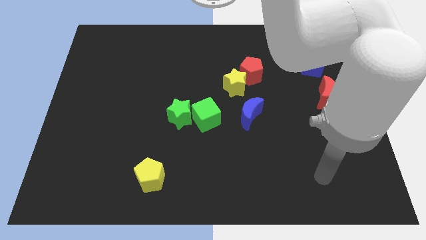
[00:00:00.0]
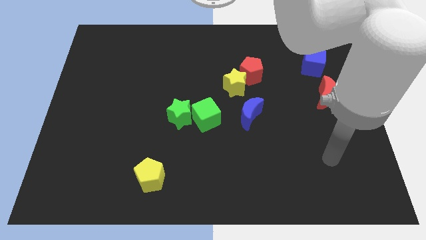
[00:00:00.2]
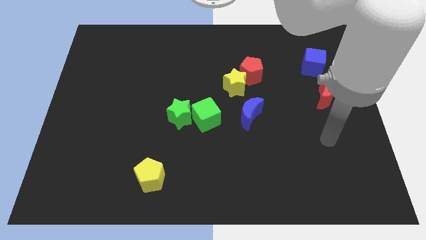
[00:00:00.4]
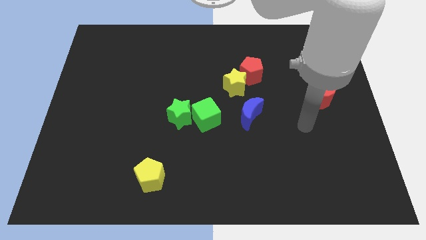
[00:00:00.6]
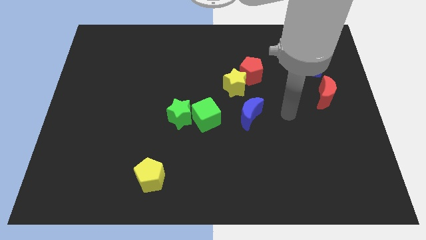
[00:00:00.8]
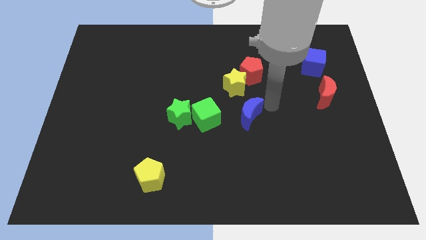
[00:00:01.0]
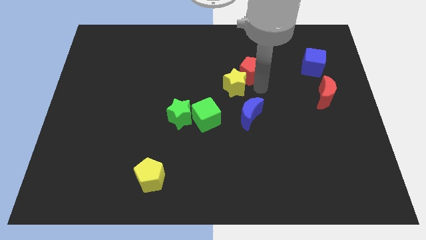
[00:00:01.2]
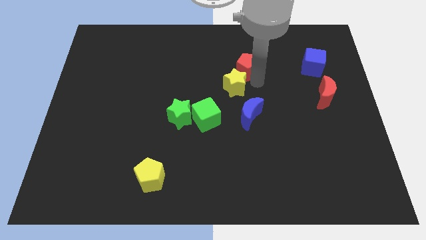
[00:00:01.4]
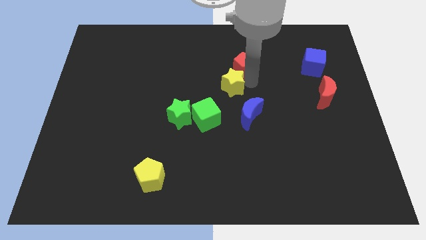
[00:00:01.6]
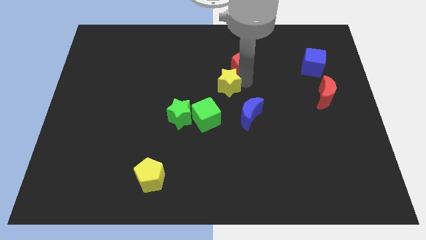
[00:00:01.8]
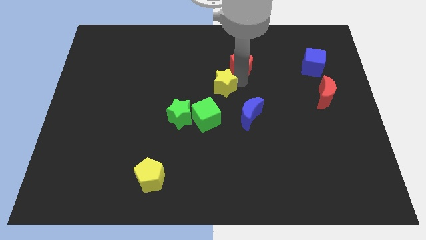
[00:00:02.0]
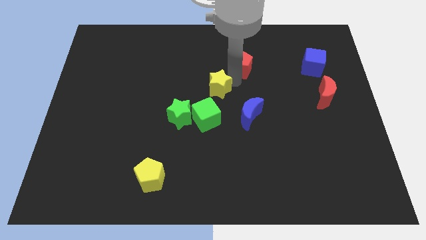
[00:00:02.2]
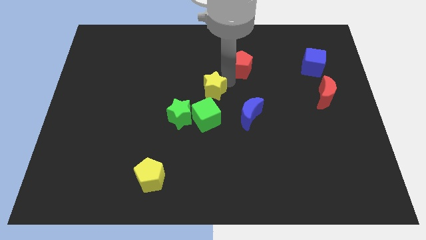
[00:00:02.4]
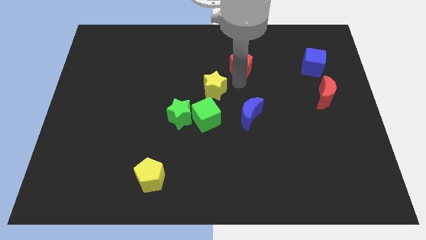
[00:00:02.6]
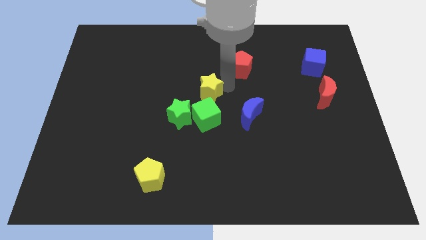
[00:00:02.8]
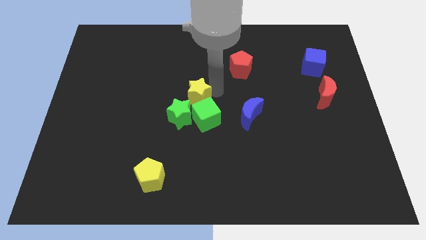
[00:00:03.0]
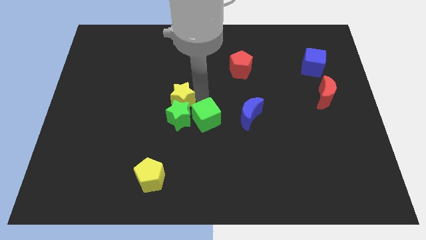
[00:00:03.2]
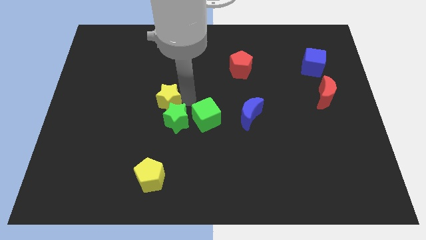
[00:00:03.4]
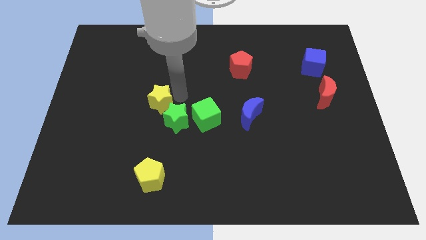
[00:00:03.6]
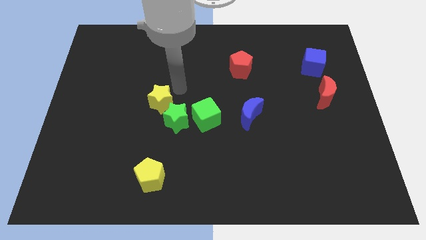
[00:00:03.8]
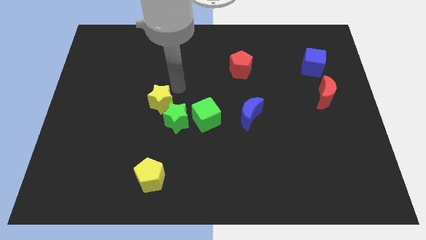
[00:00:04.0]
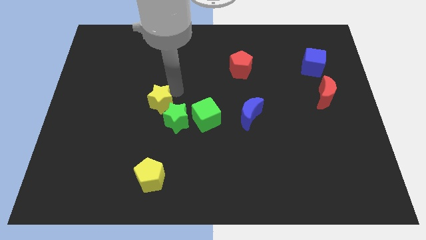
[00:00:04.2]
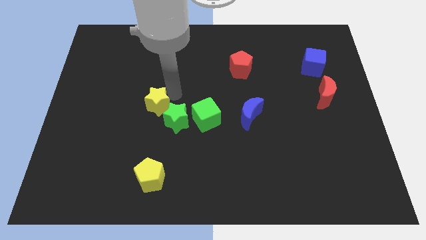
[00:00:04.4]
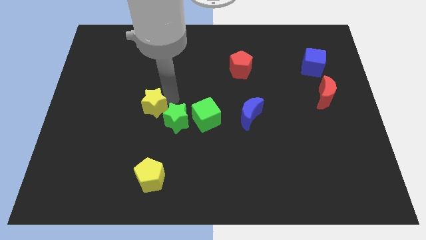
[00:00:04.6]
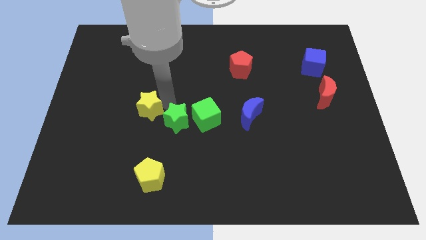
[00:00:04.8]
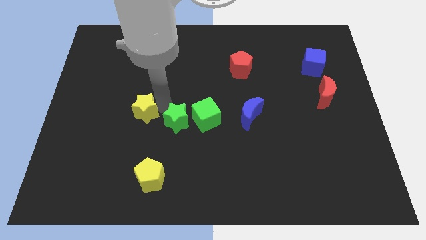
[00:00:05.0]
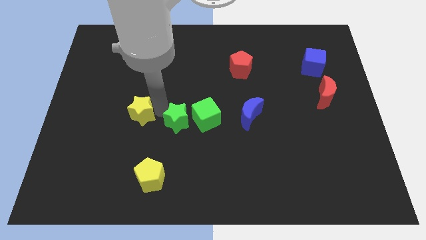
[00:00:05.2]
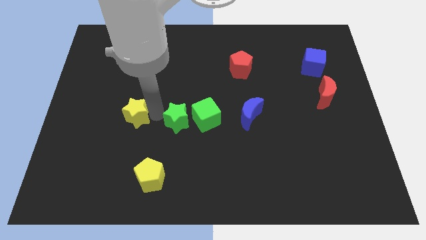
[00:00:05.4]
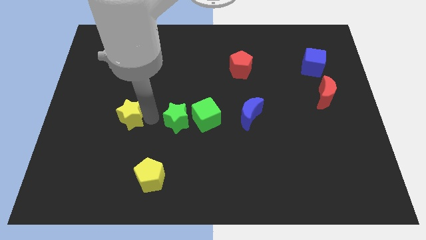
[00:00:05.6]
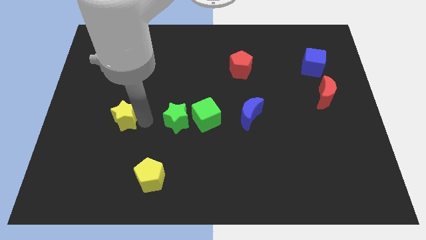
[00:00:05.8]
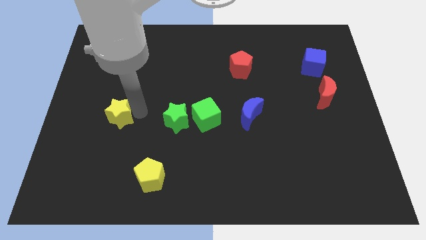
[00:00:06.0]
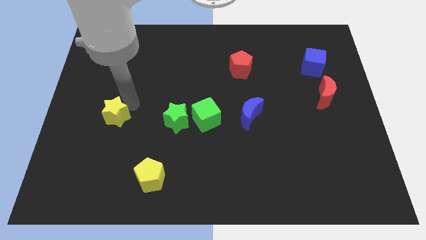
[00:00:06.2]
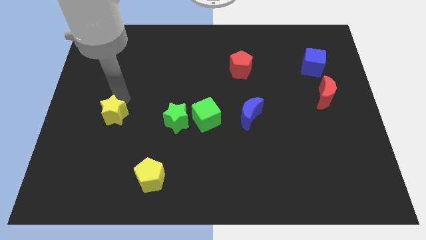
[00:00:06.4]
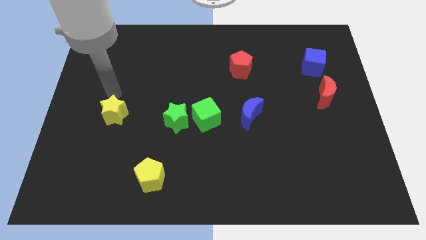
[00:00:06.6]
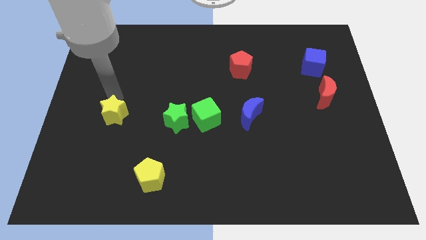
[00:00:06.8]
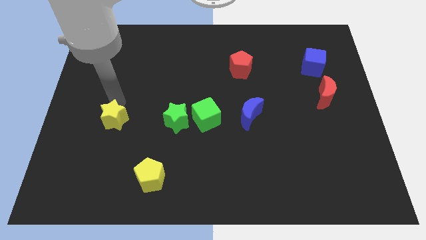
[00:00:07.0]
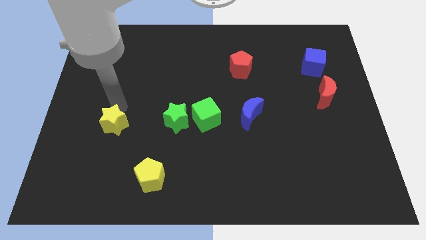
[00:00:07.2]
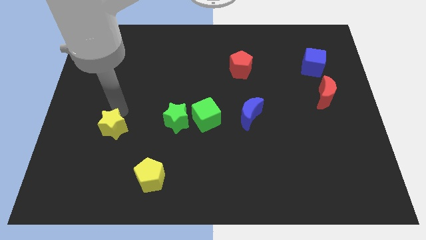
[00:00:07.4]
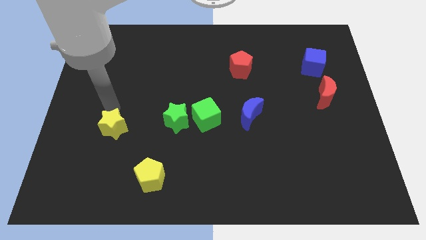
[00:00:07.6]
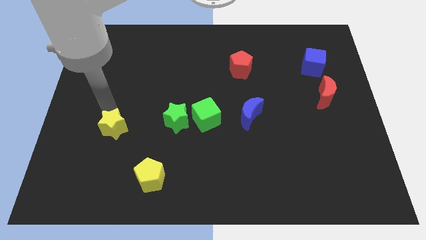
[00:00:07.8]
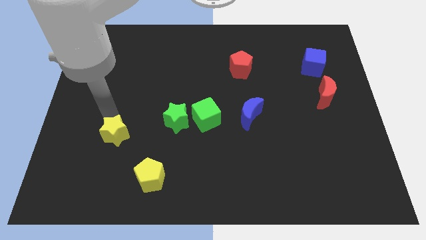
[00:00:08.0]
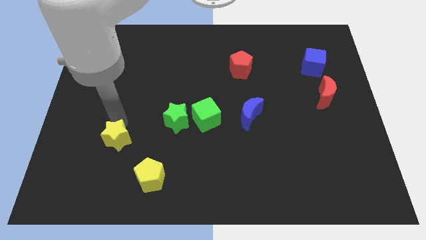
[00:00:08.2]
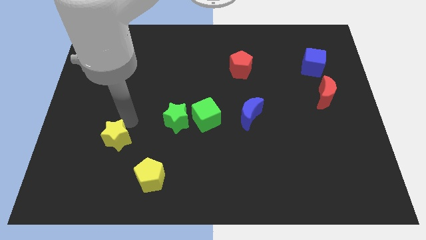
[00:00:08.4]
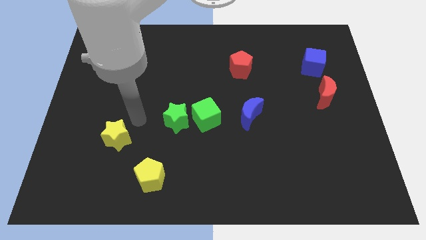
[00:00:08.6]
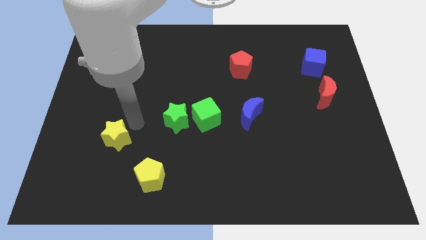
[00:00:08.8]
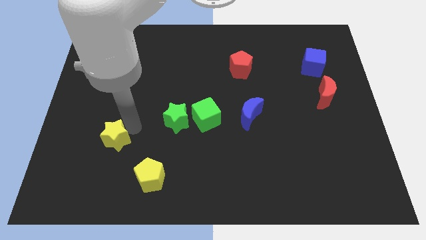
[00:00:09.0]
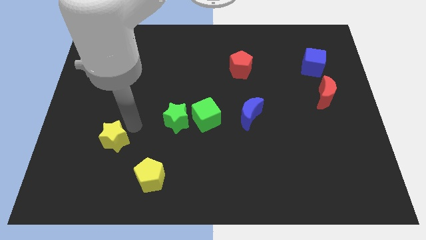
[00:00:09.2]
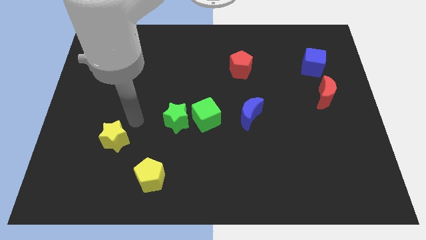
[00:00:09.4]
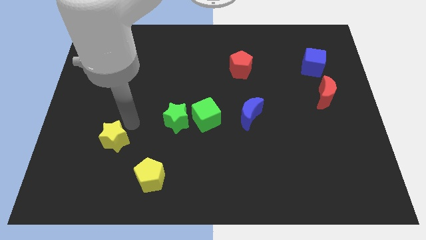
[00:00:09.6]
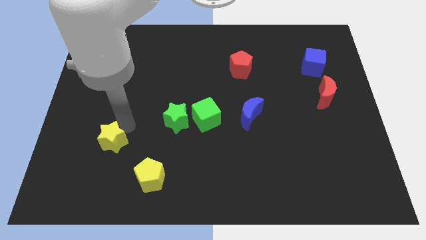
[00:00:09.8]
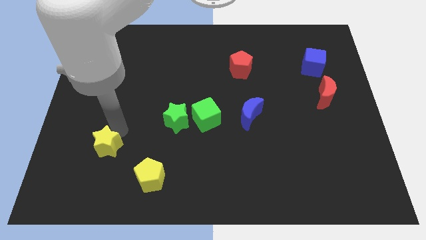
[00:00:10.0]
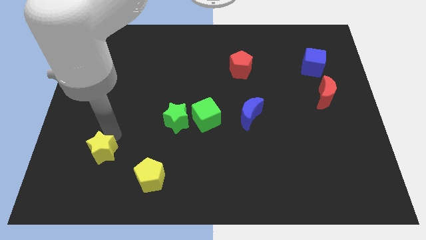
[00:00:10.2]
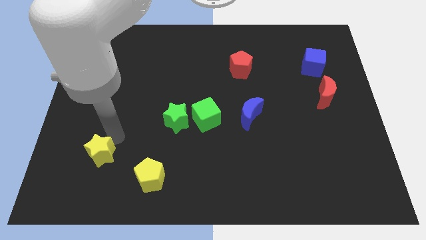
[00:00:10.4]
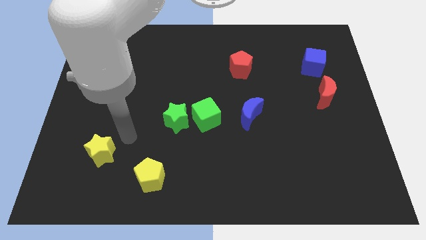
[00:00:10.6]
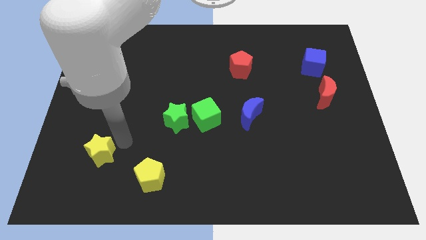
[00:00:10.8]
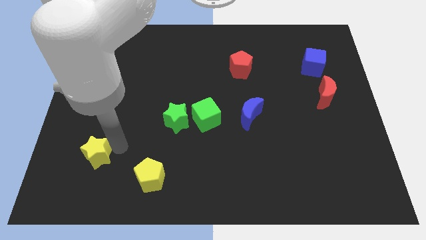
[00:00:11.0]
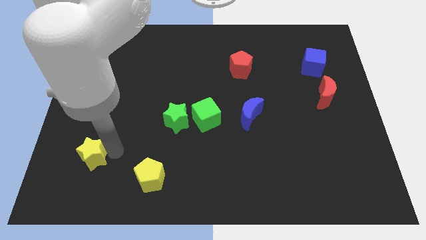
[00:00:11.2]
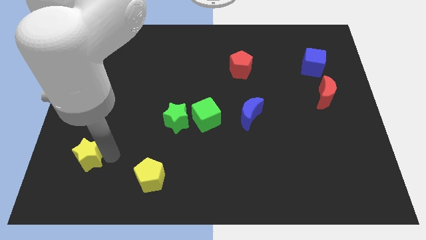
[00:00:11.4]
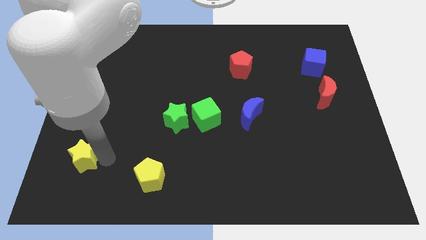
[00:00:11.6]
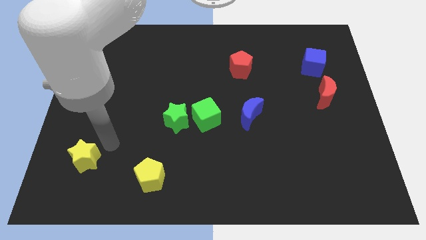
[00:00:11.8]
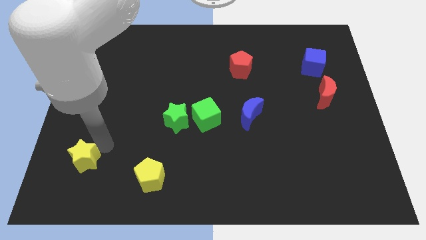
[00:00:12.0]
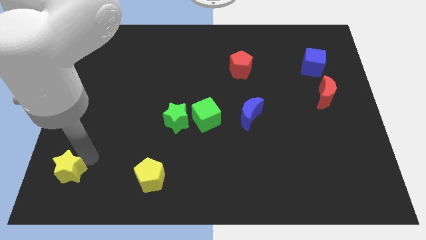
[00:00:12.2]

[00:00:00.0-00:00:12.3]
slide the yellow star to the bottom left of the board

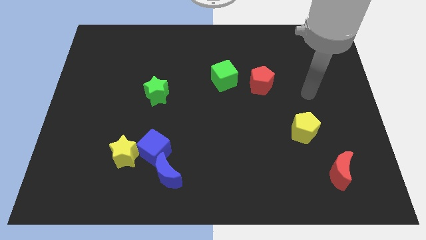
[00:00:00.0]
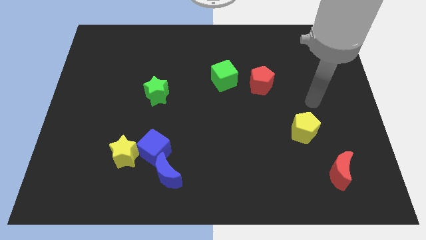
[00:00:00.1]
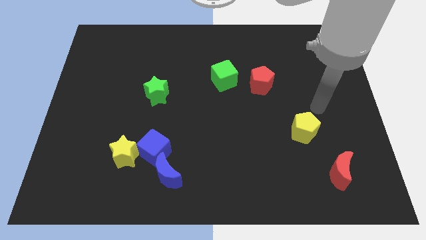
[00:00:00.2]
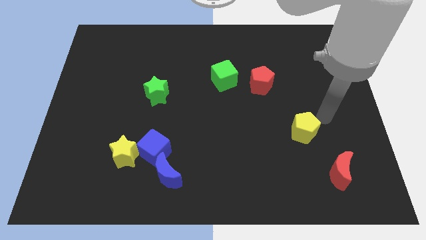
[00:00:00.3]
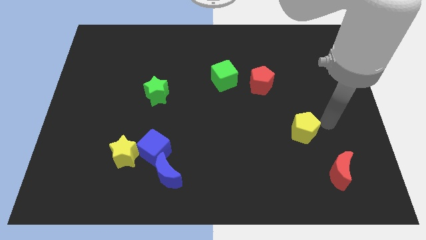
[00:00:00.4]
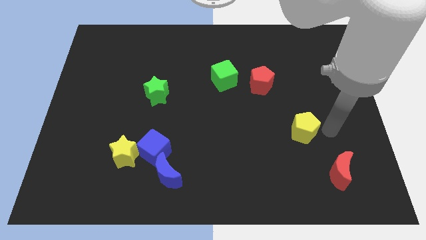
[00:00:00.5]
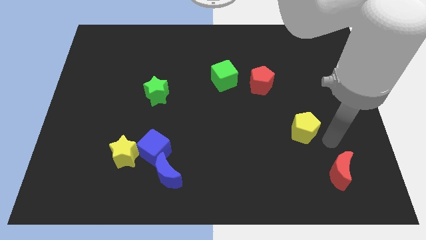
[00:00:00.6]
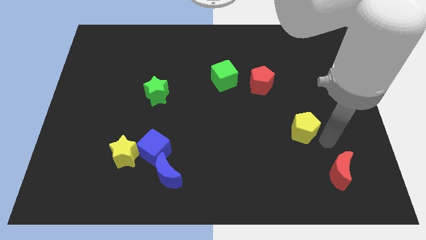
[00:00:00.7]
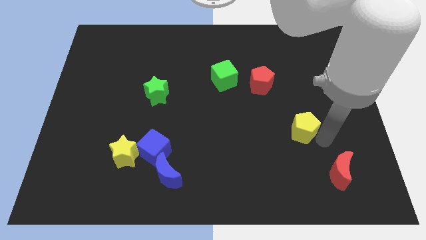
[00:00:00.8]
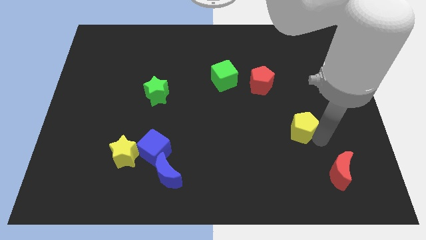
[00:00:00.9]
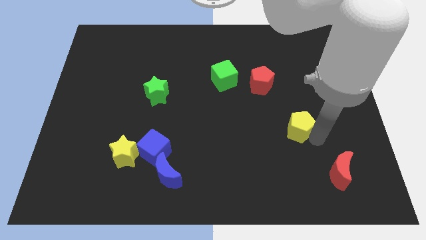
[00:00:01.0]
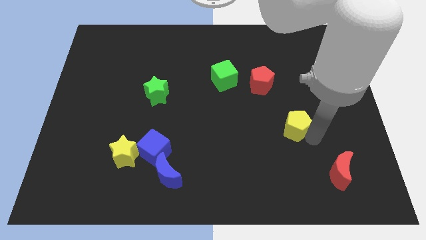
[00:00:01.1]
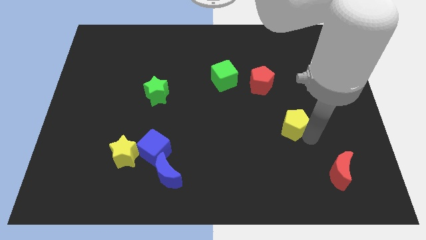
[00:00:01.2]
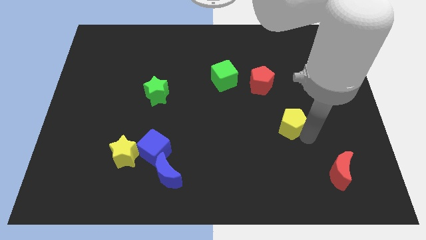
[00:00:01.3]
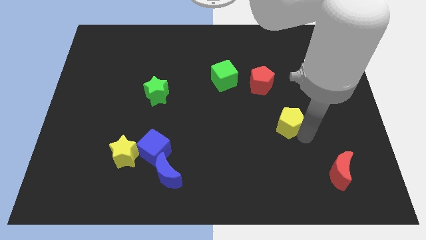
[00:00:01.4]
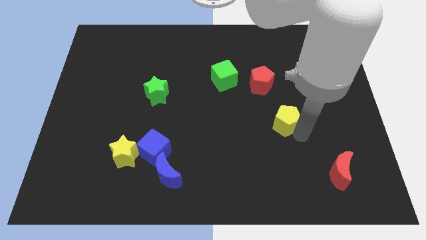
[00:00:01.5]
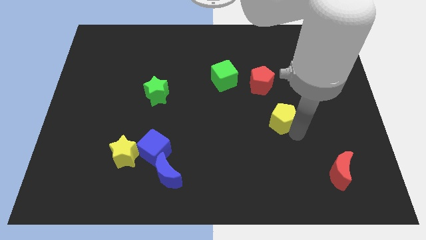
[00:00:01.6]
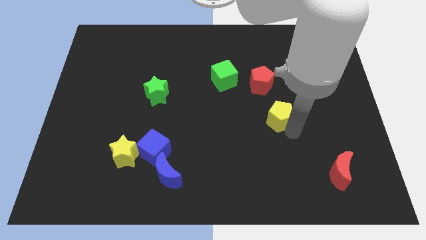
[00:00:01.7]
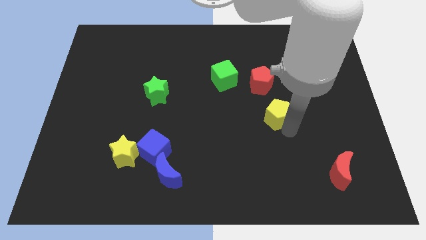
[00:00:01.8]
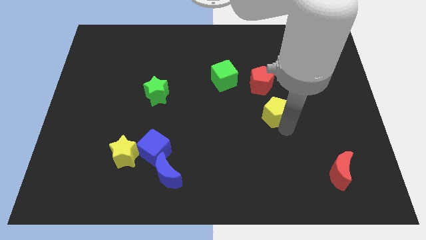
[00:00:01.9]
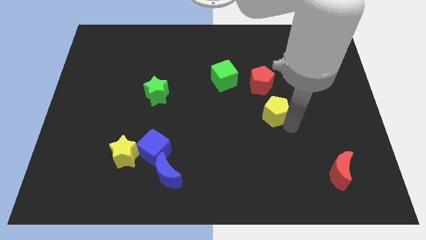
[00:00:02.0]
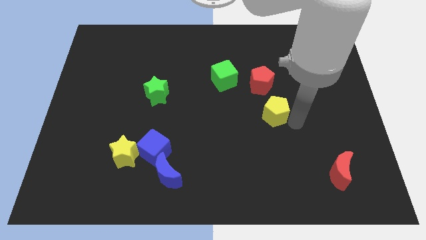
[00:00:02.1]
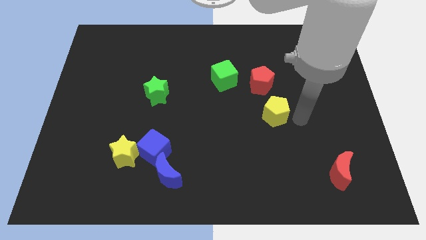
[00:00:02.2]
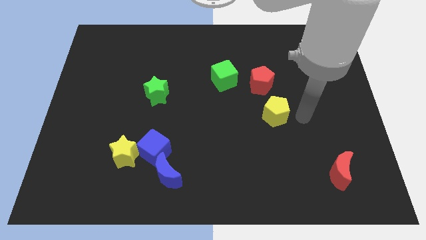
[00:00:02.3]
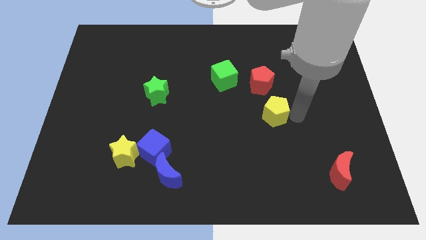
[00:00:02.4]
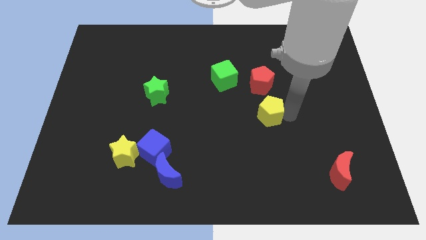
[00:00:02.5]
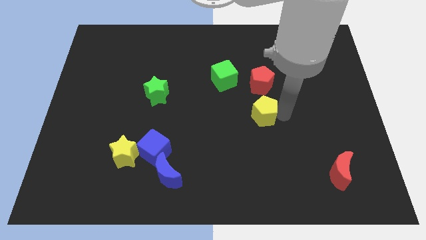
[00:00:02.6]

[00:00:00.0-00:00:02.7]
put the yellow pentagon to the center of the board
